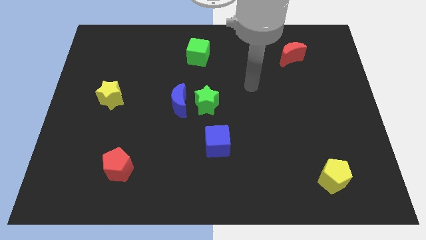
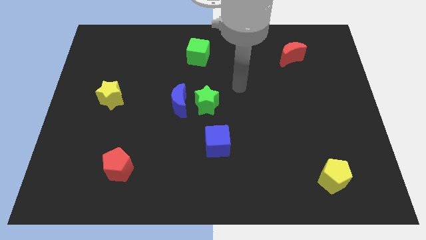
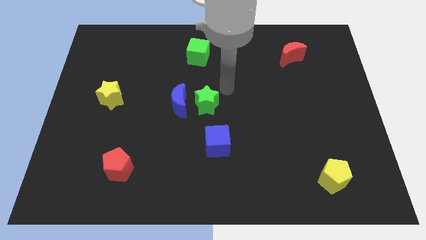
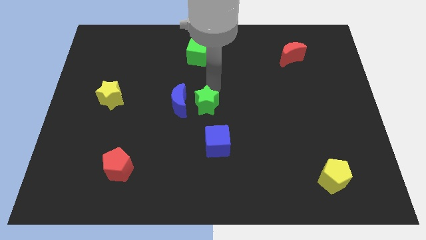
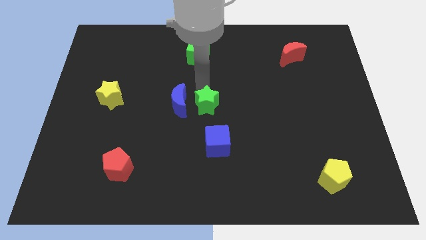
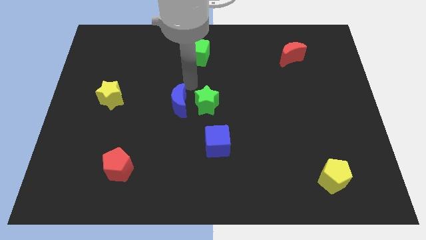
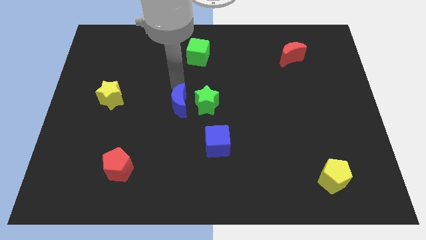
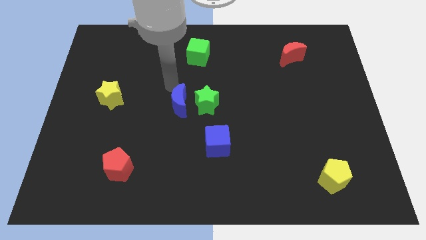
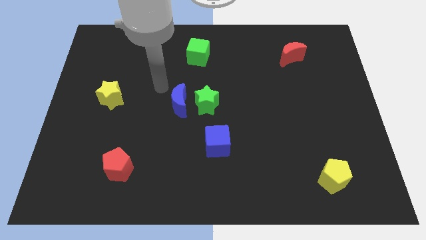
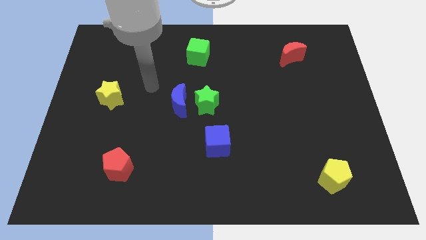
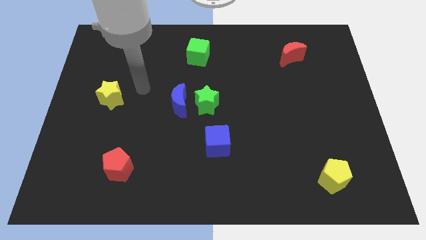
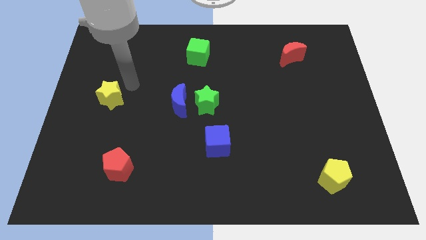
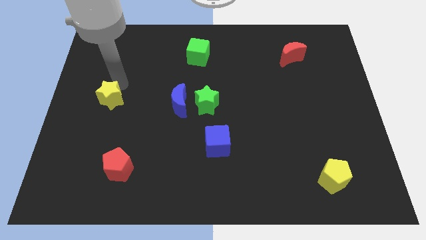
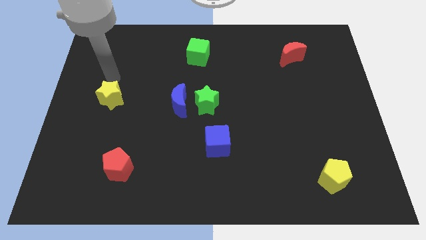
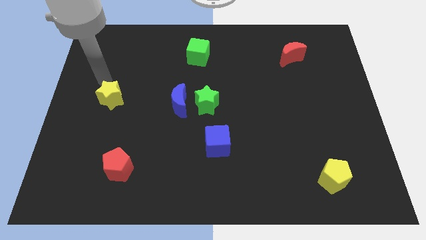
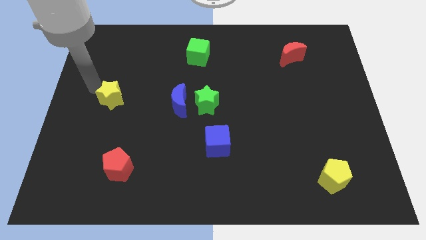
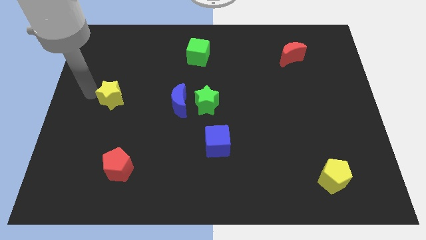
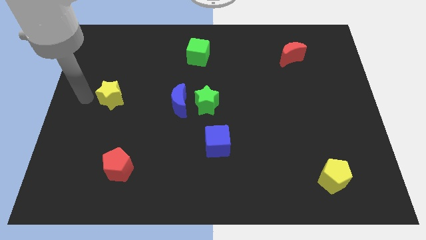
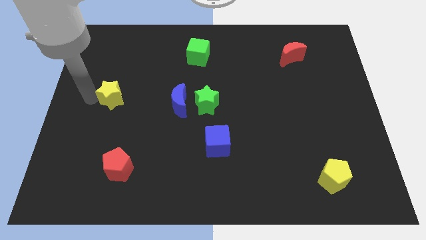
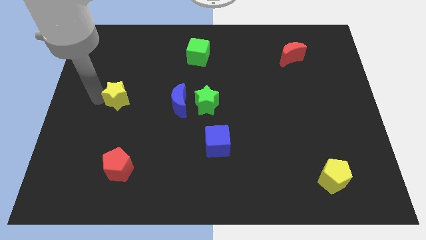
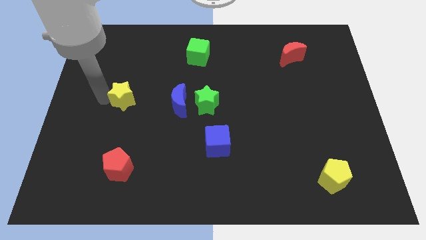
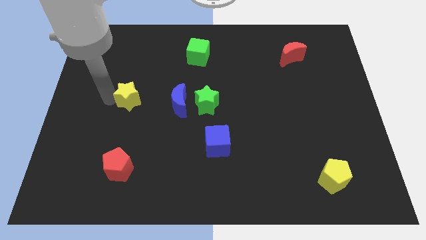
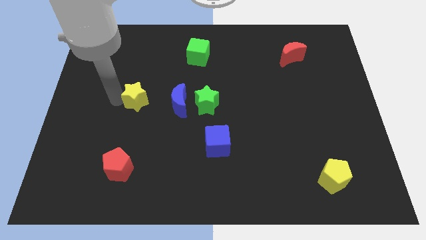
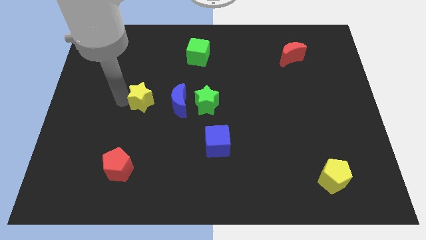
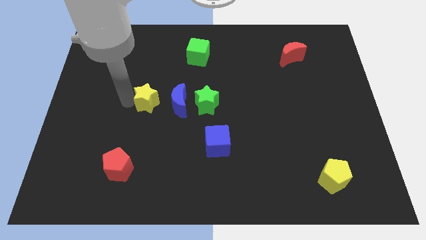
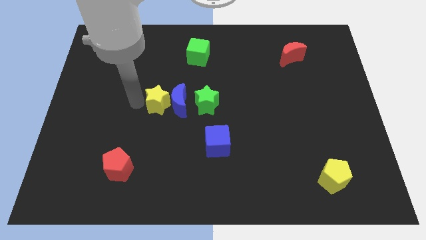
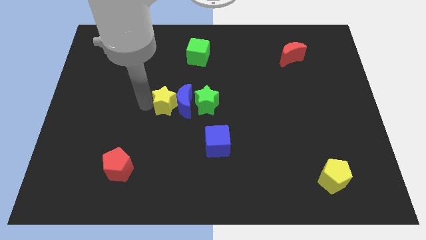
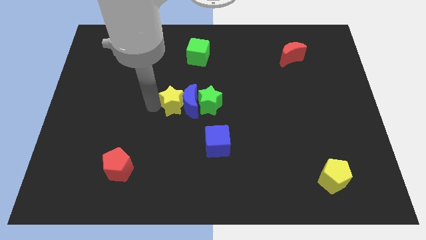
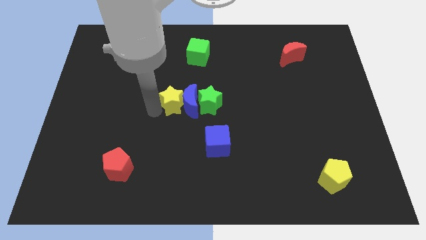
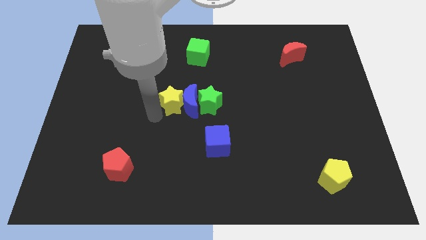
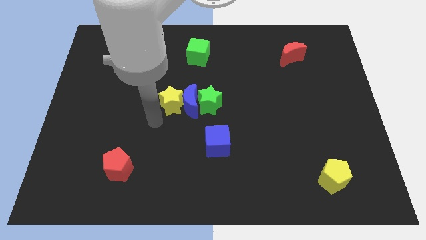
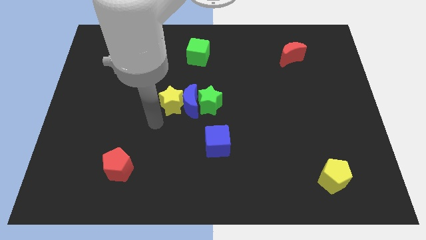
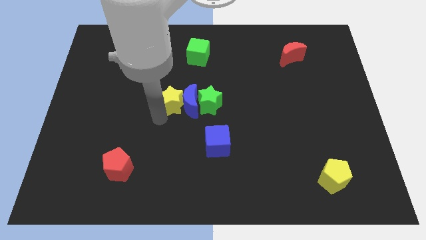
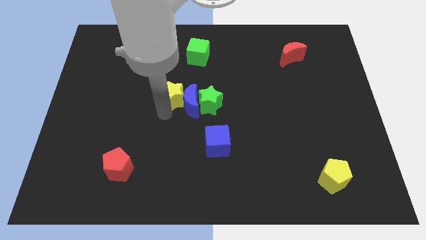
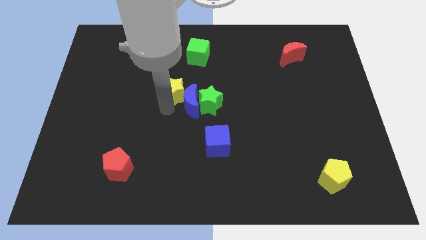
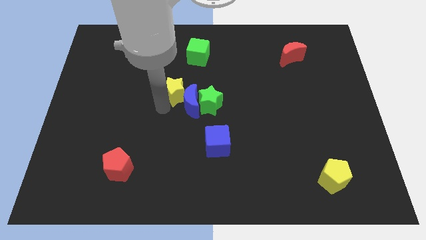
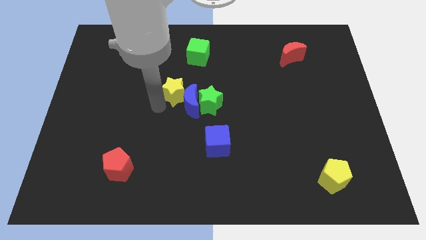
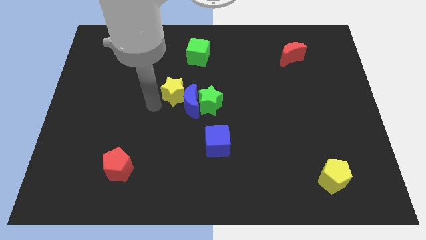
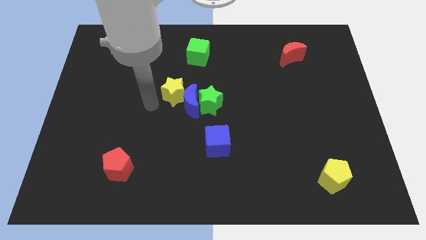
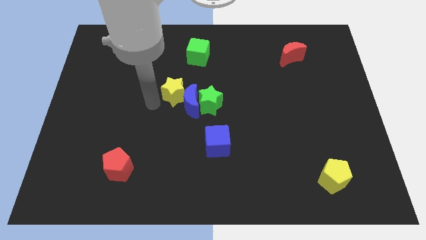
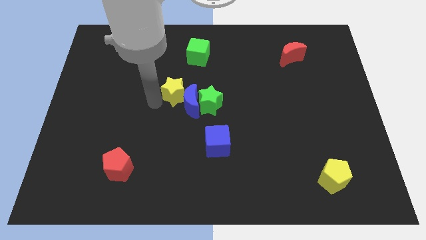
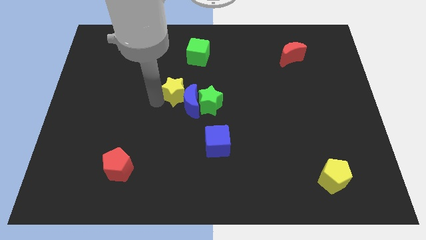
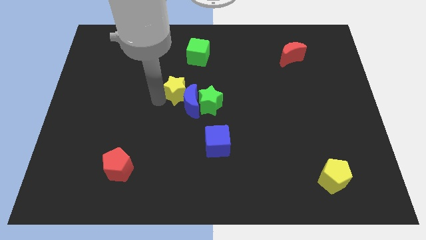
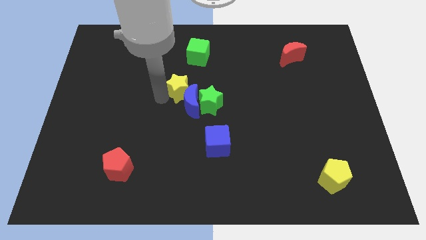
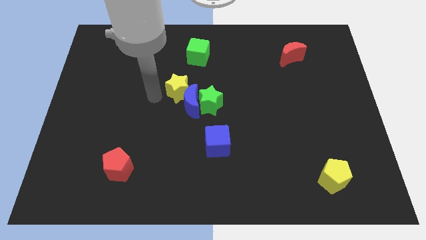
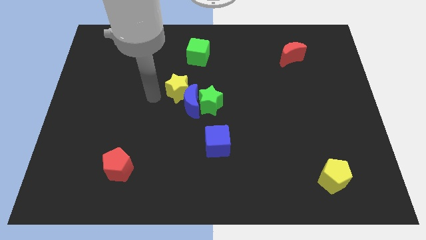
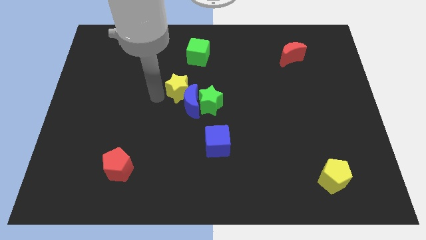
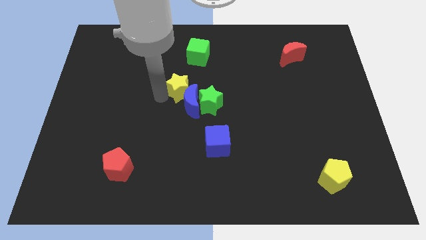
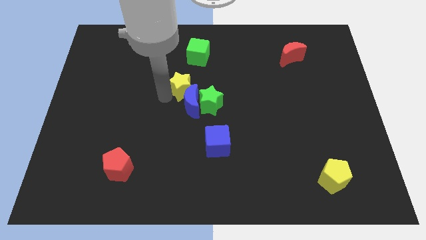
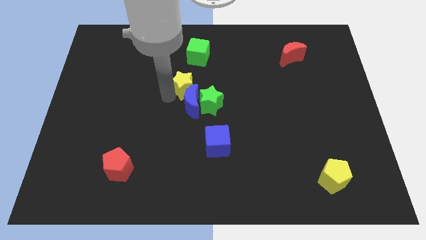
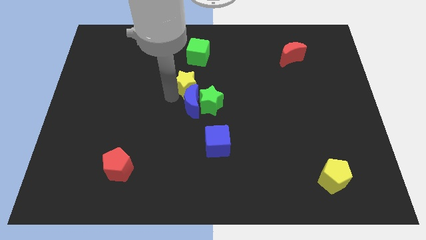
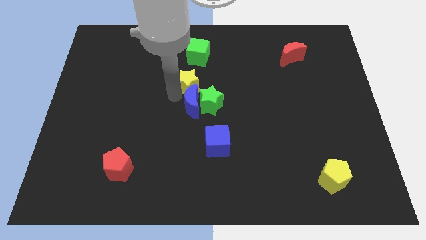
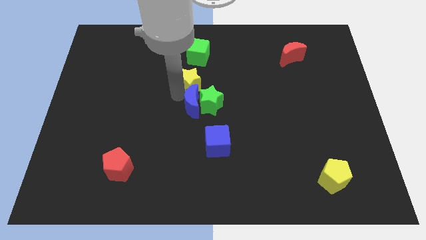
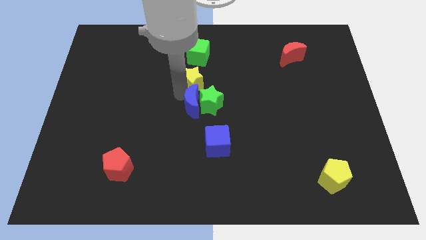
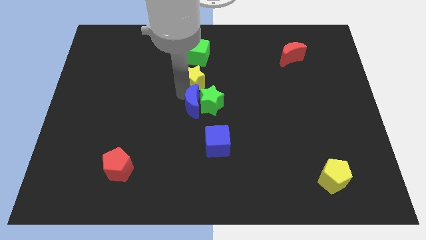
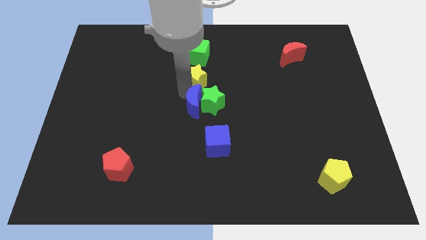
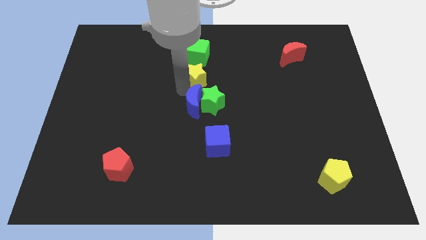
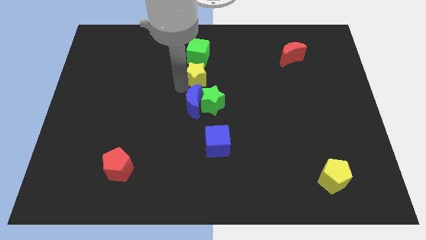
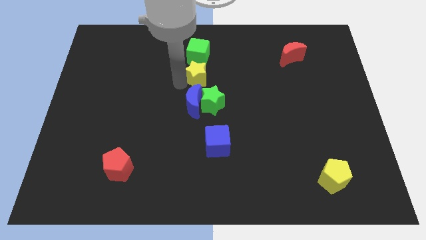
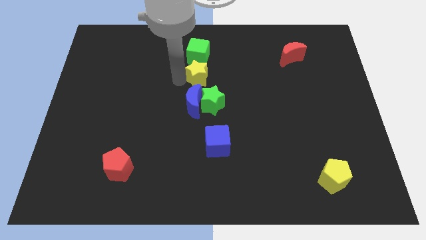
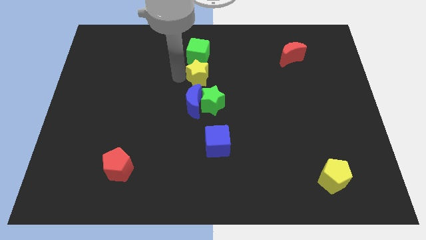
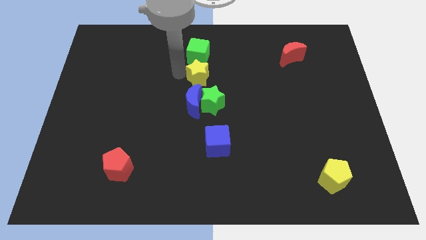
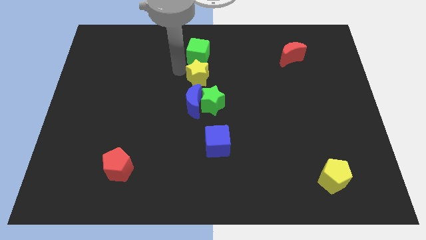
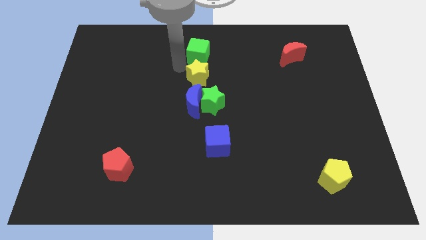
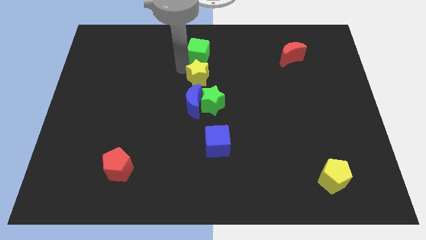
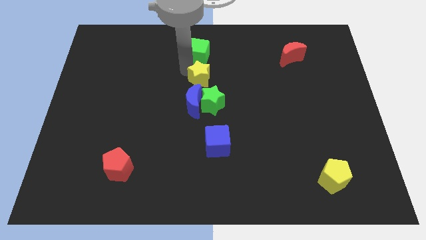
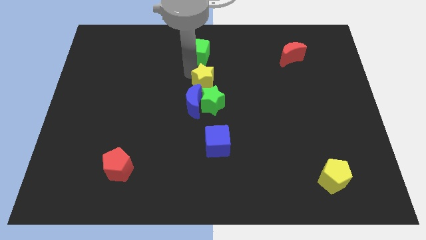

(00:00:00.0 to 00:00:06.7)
push the yellow star to the right

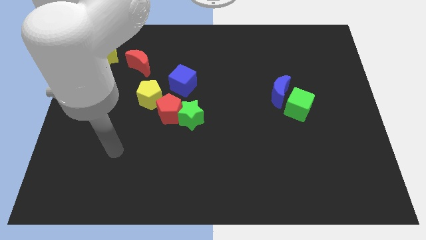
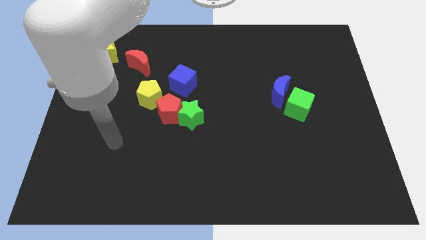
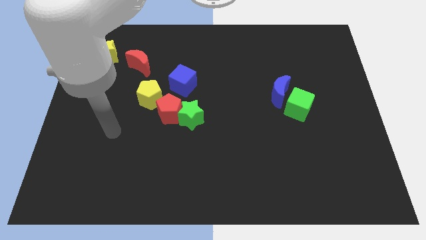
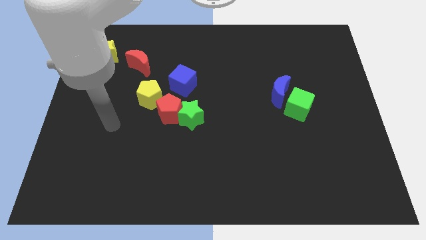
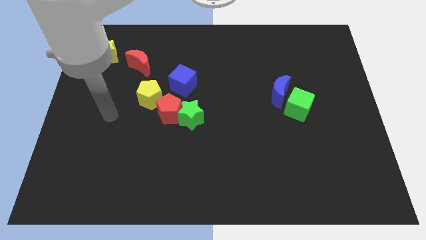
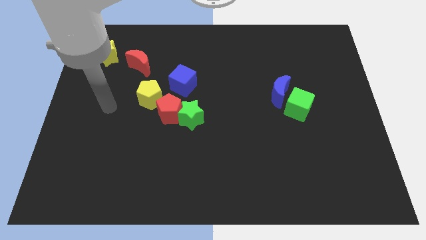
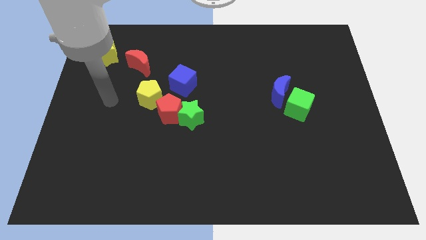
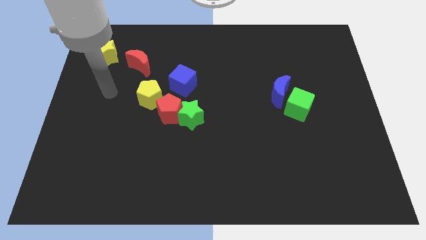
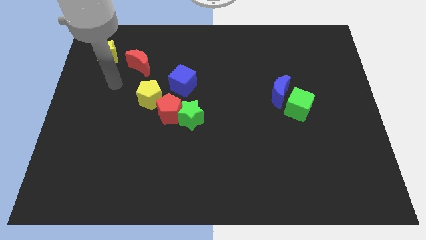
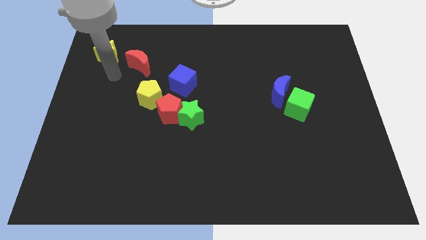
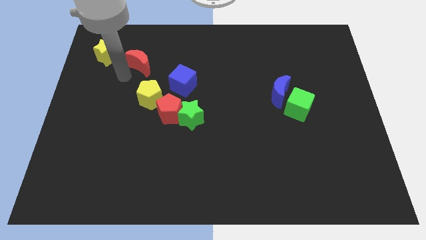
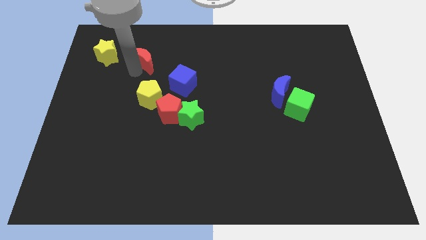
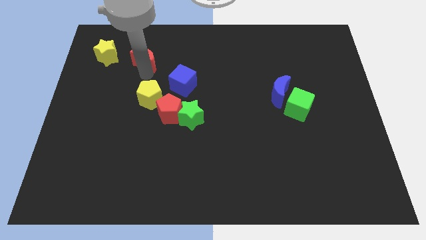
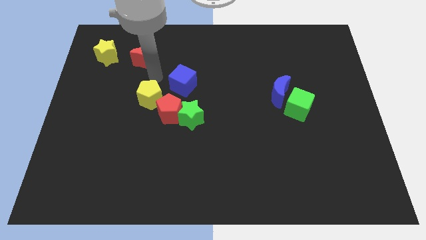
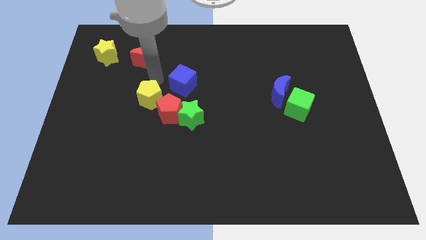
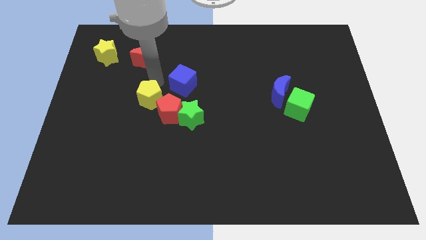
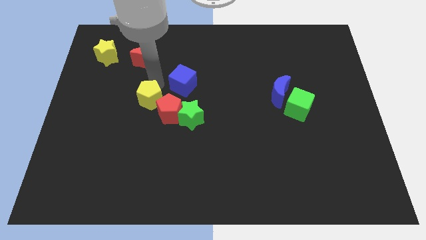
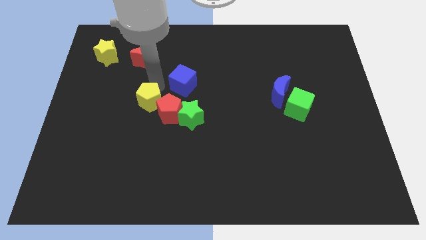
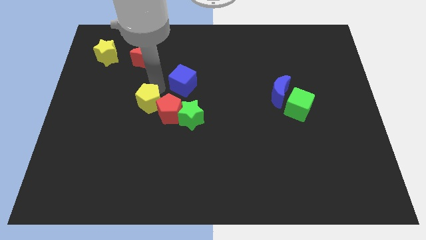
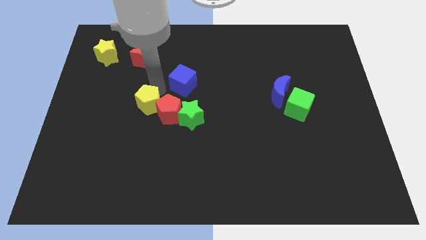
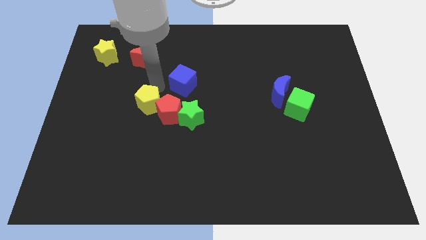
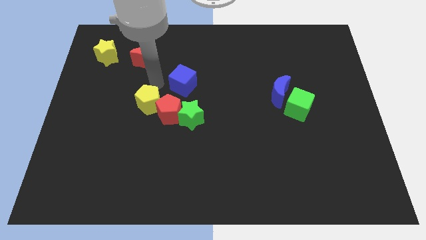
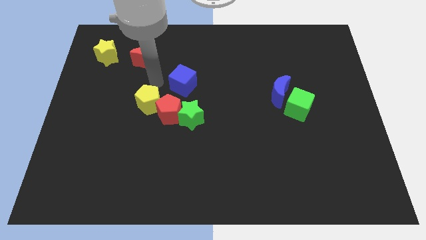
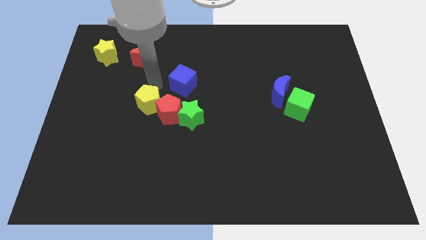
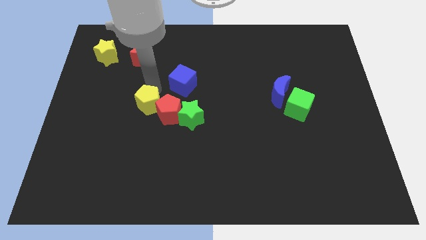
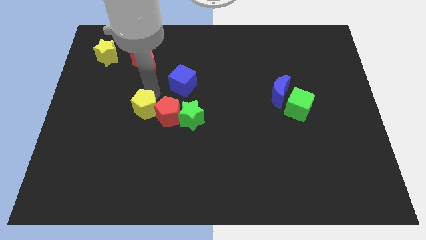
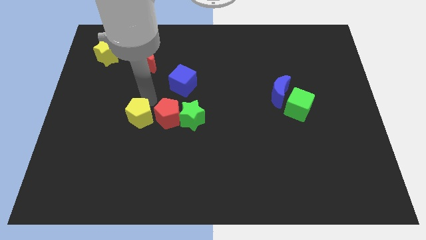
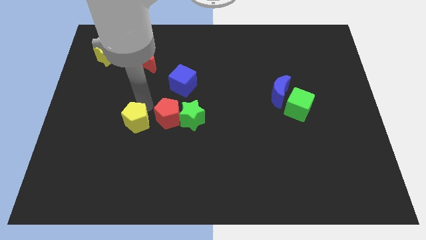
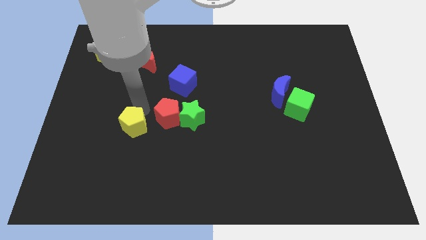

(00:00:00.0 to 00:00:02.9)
move the yellow pentagon down slightly
